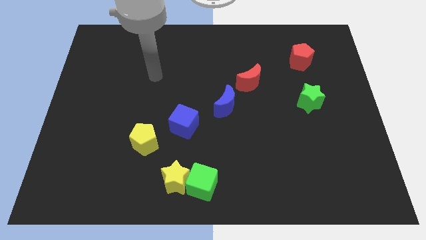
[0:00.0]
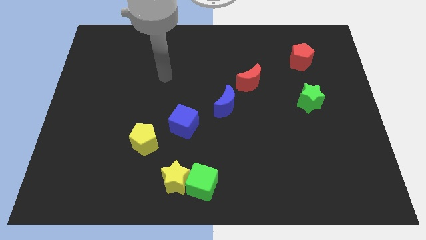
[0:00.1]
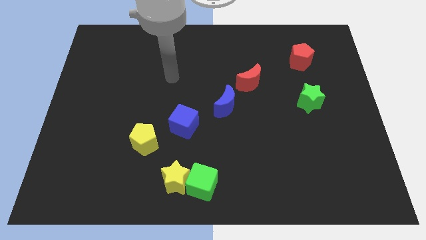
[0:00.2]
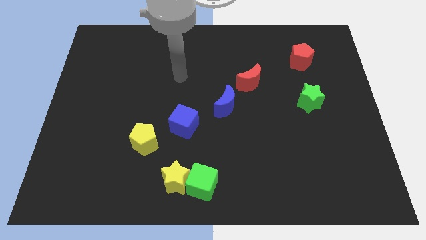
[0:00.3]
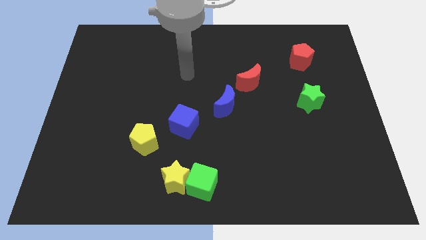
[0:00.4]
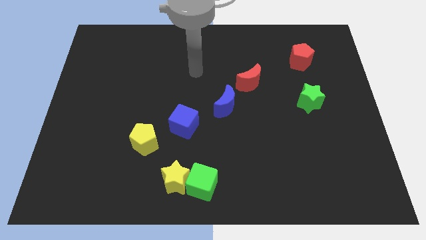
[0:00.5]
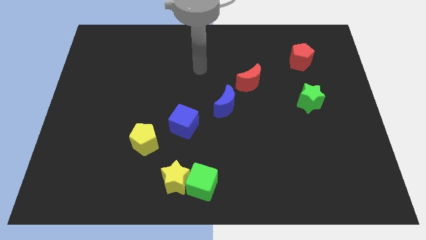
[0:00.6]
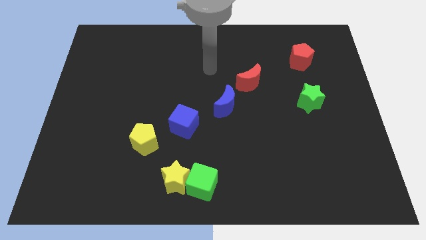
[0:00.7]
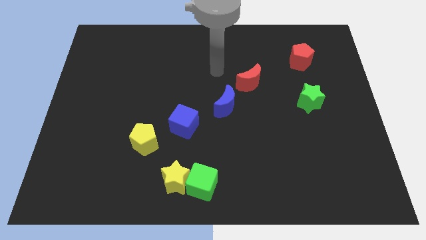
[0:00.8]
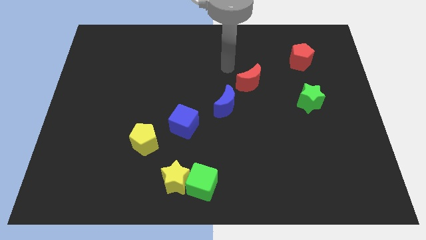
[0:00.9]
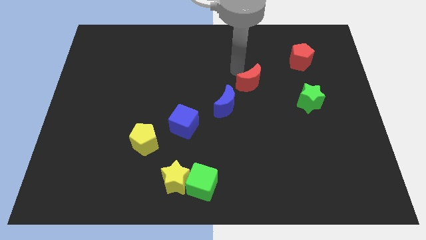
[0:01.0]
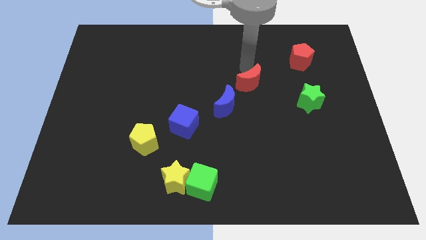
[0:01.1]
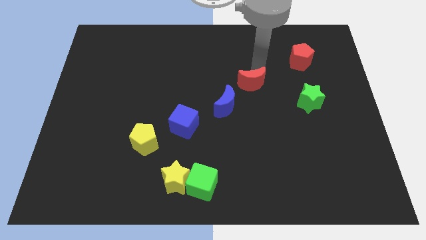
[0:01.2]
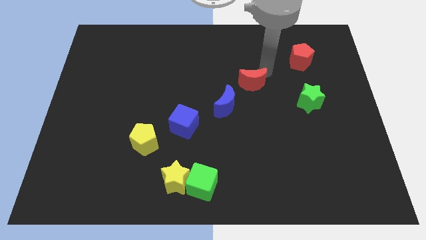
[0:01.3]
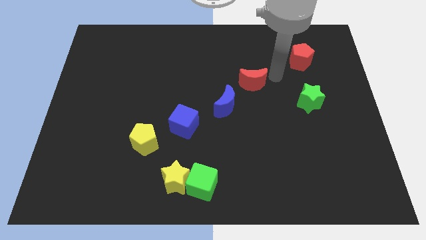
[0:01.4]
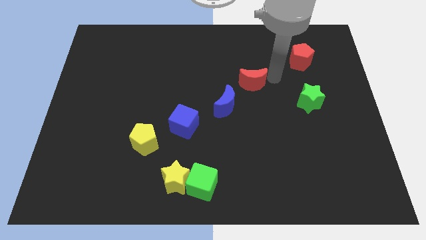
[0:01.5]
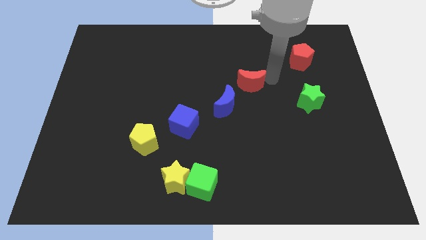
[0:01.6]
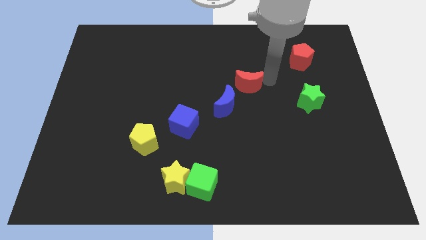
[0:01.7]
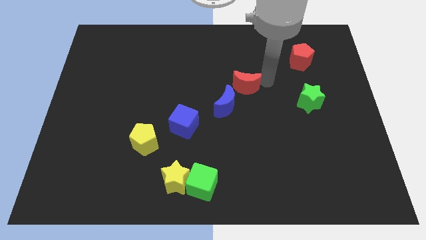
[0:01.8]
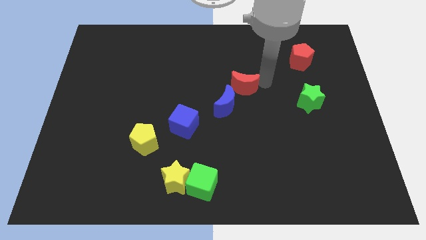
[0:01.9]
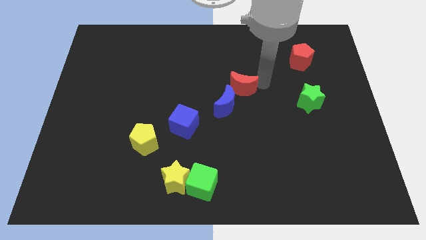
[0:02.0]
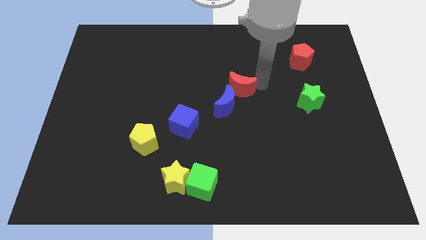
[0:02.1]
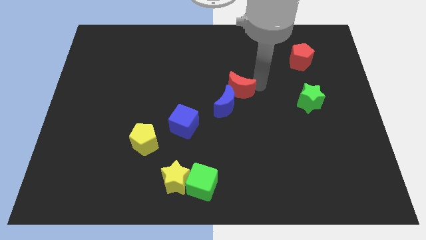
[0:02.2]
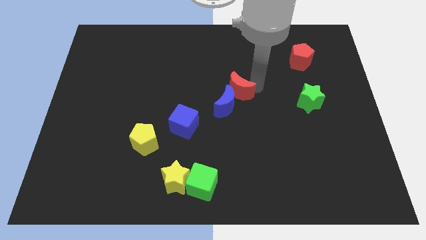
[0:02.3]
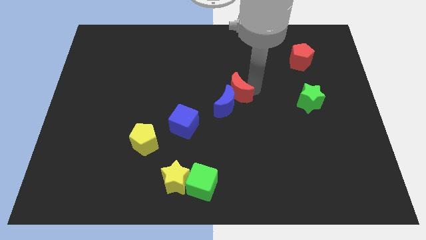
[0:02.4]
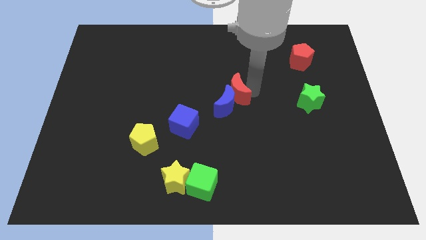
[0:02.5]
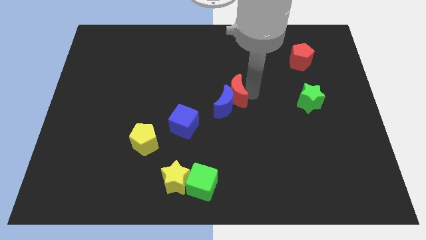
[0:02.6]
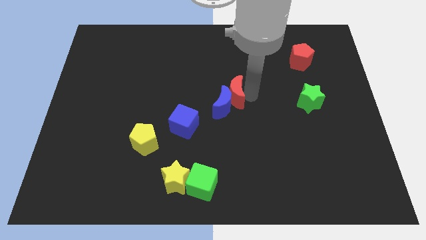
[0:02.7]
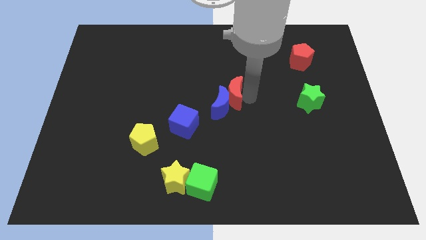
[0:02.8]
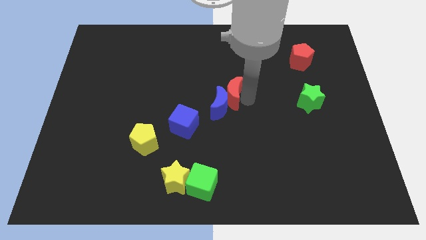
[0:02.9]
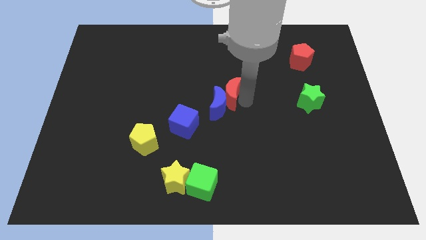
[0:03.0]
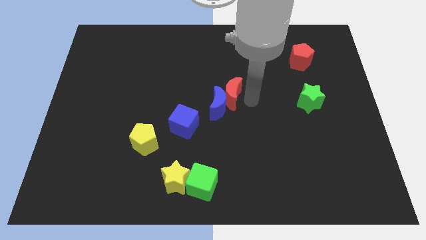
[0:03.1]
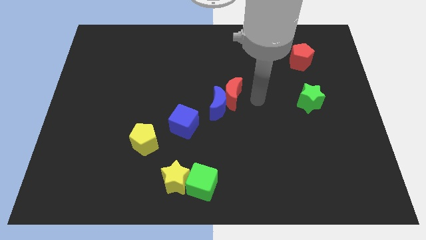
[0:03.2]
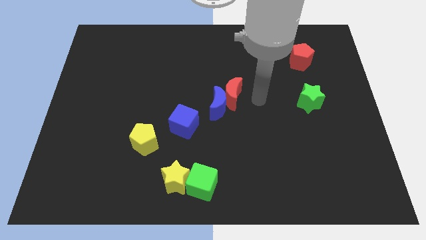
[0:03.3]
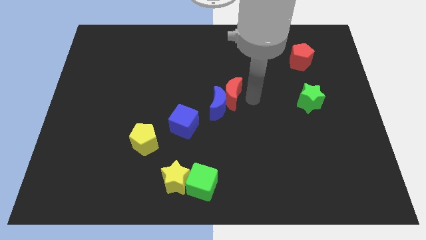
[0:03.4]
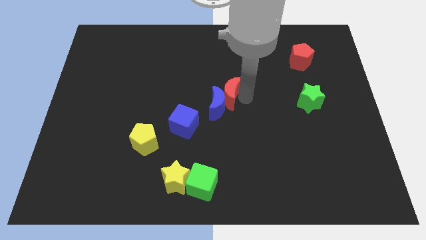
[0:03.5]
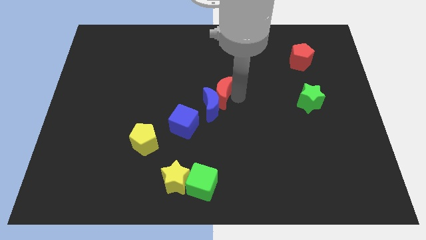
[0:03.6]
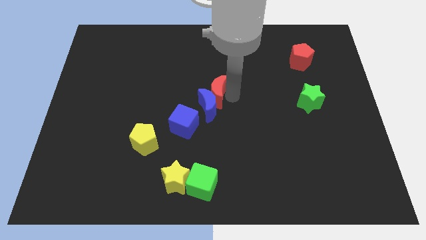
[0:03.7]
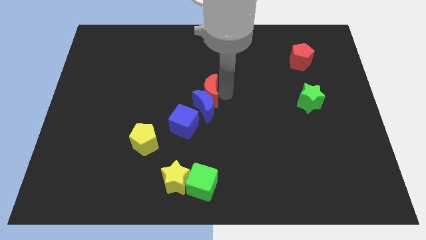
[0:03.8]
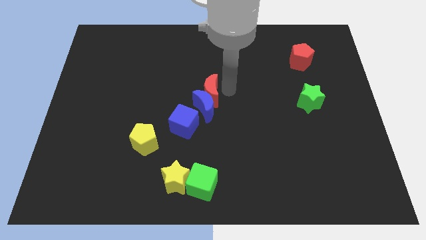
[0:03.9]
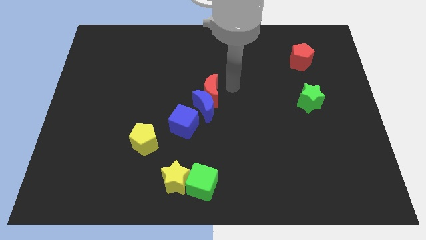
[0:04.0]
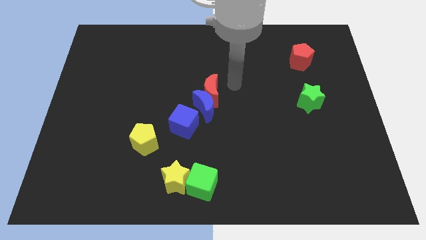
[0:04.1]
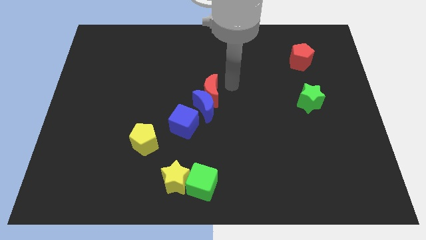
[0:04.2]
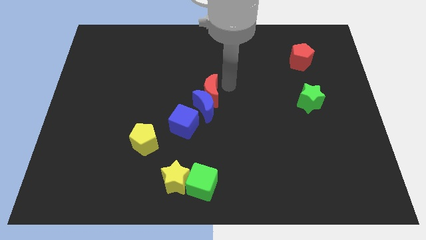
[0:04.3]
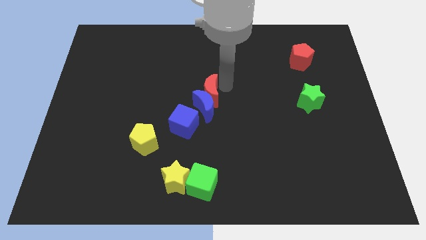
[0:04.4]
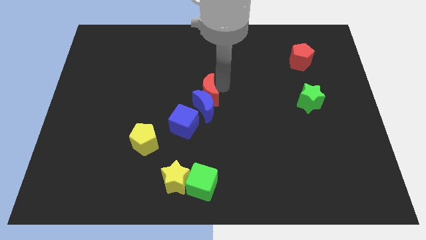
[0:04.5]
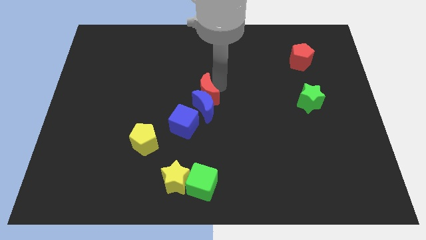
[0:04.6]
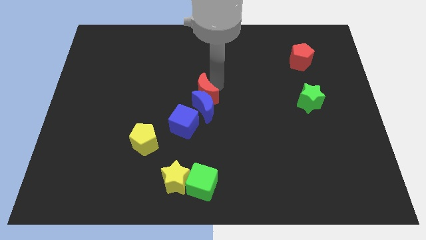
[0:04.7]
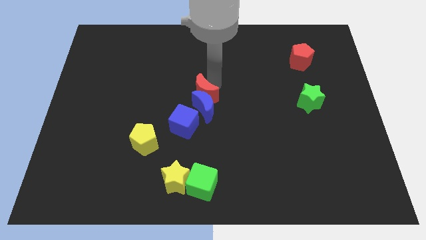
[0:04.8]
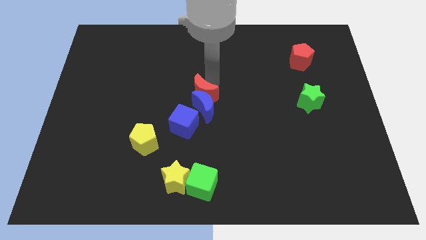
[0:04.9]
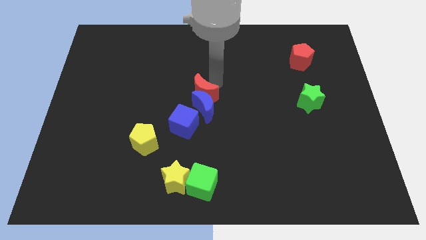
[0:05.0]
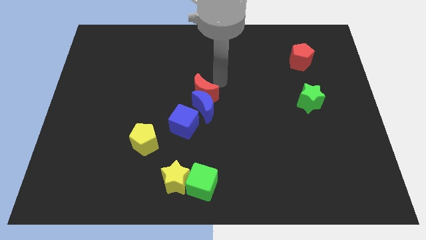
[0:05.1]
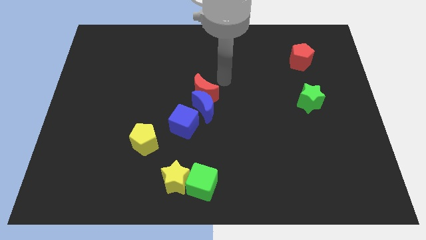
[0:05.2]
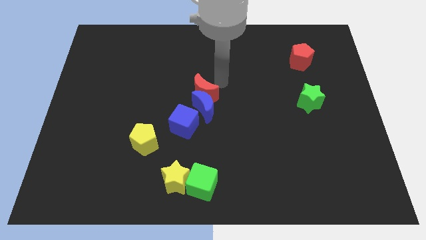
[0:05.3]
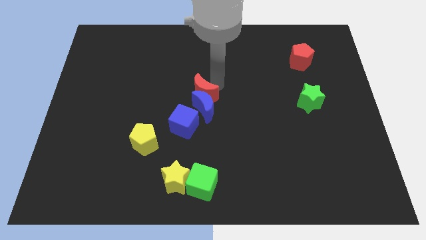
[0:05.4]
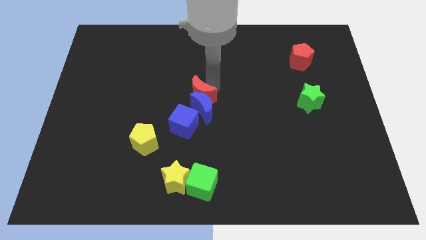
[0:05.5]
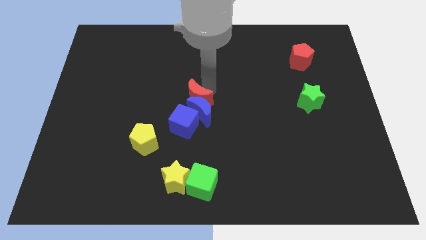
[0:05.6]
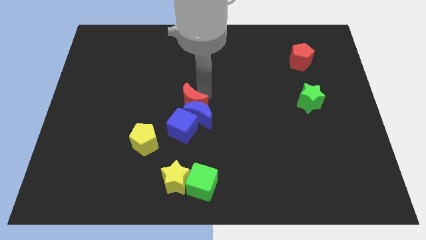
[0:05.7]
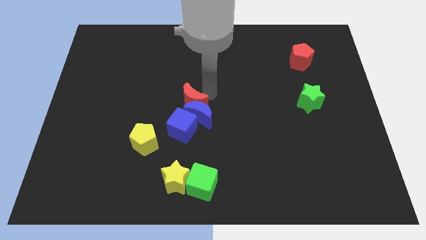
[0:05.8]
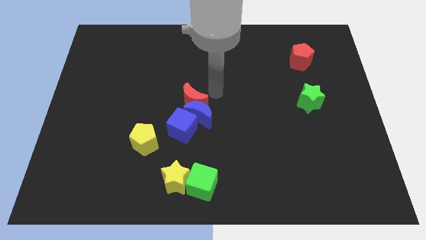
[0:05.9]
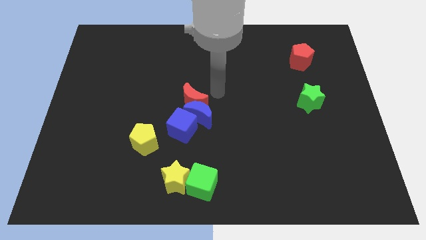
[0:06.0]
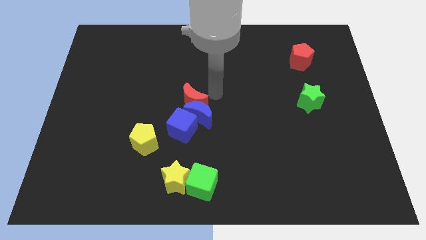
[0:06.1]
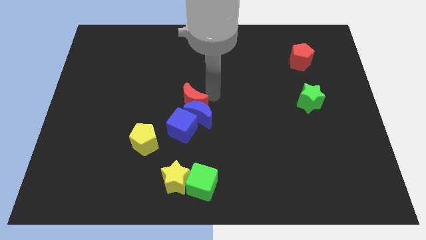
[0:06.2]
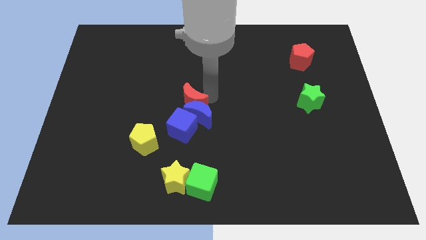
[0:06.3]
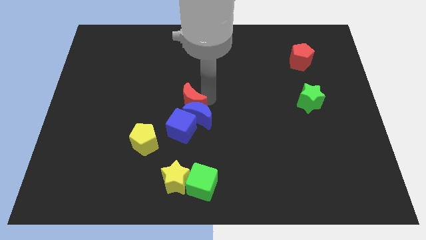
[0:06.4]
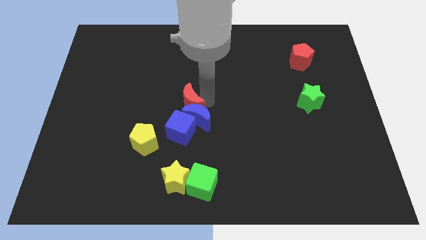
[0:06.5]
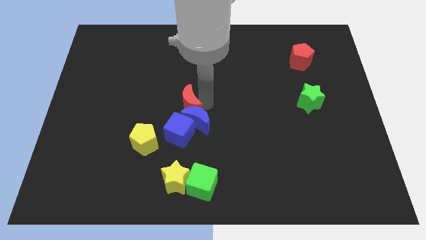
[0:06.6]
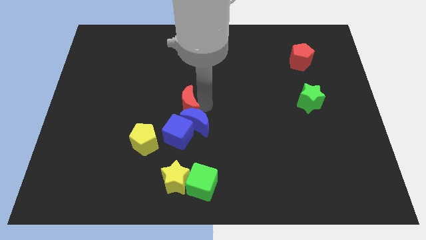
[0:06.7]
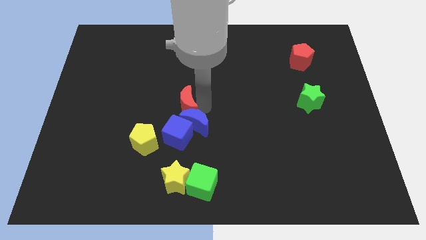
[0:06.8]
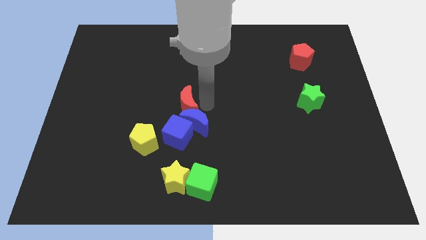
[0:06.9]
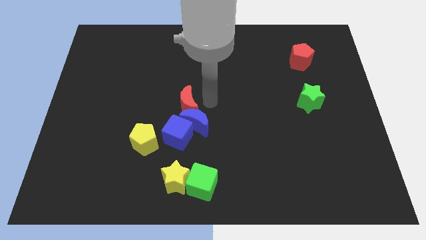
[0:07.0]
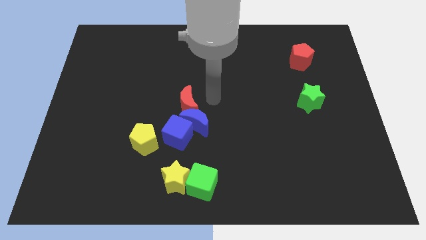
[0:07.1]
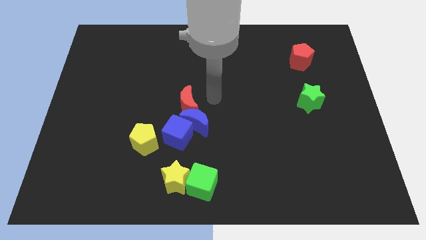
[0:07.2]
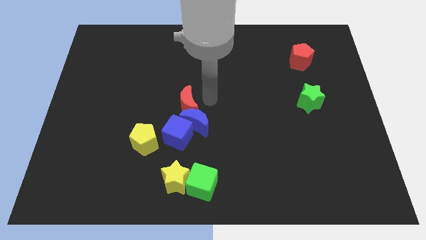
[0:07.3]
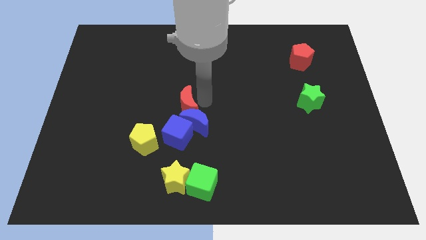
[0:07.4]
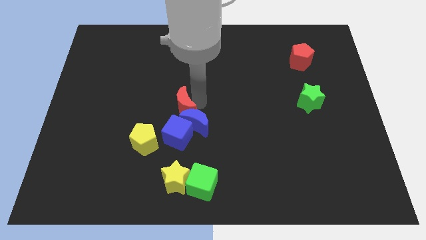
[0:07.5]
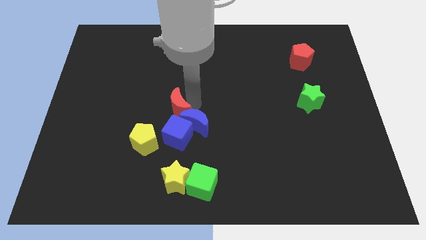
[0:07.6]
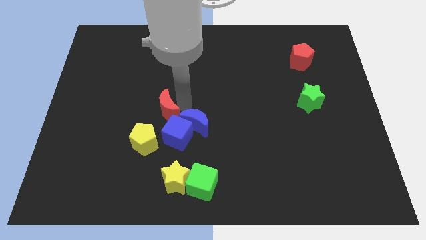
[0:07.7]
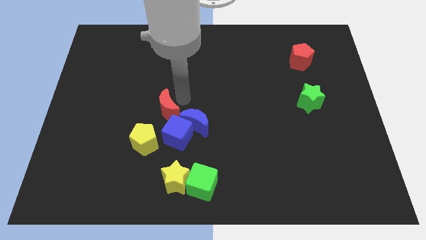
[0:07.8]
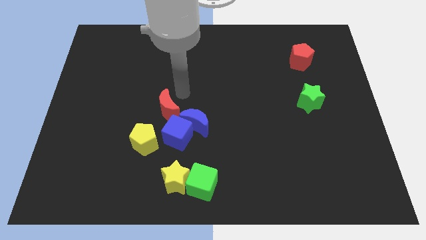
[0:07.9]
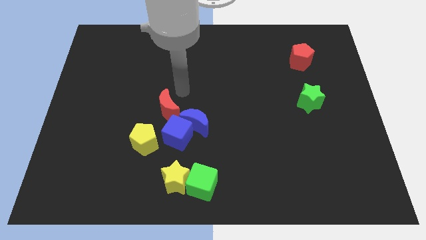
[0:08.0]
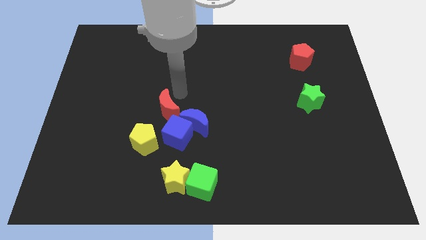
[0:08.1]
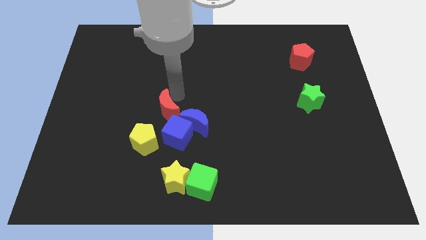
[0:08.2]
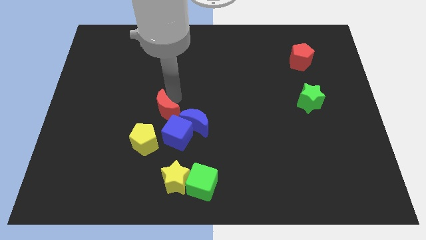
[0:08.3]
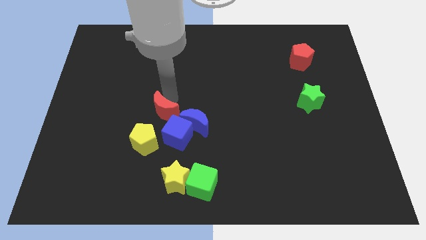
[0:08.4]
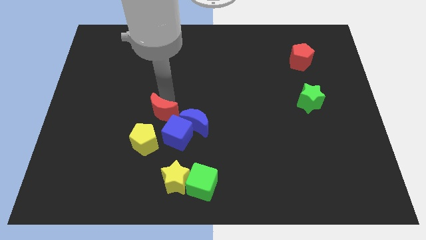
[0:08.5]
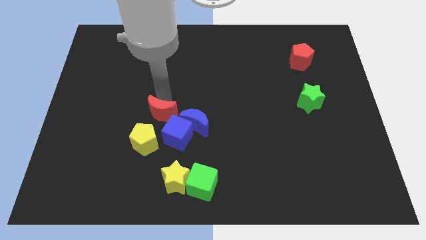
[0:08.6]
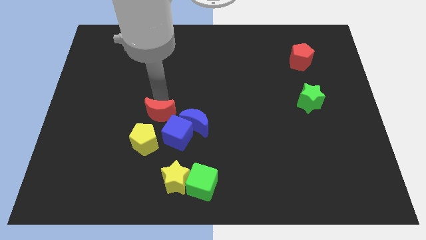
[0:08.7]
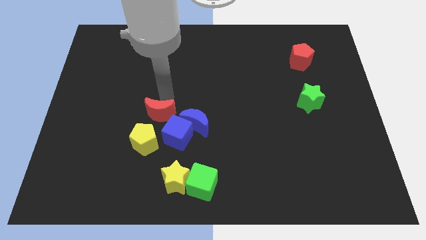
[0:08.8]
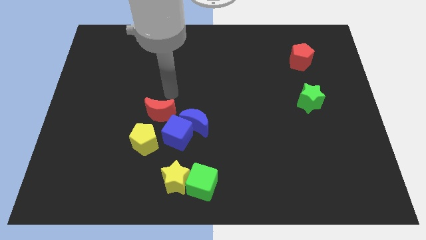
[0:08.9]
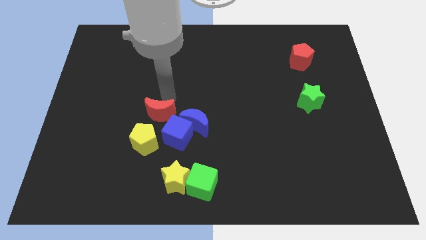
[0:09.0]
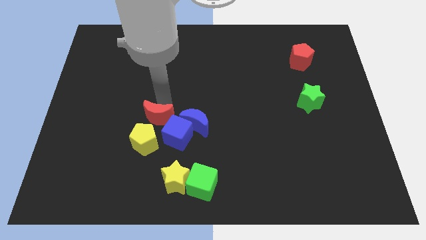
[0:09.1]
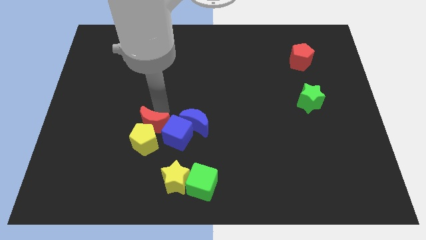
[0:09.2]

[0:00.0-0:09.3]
slide the red moon close to the yellow pentagon
